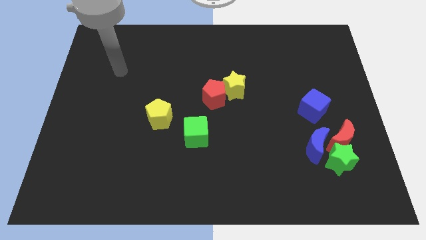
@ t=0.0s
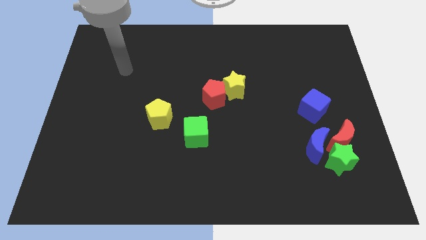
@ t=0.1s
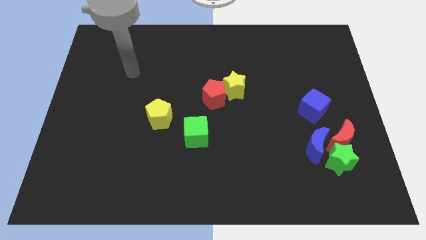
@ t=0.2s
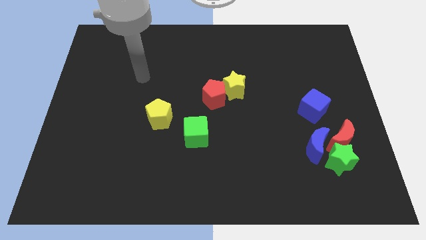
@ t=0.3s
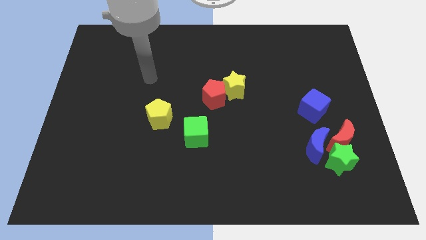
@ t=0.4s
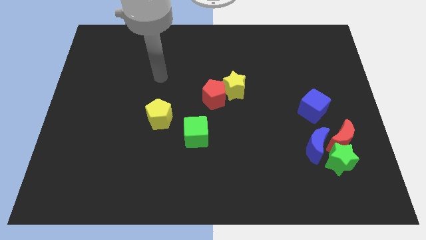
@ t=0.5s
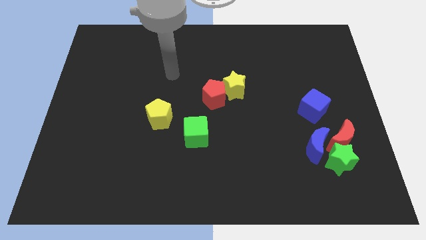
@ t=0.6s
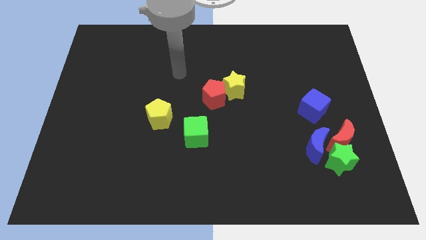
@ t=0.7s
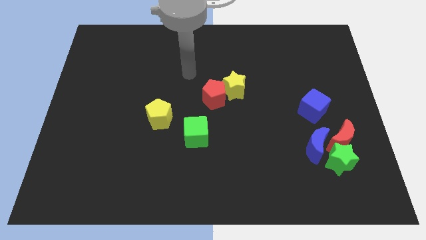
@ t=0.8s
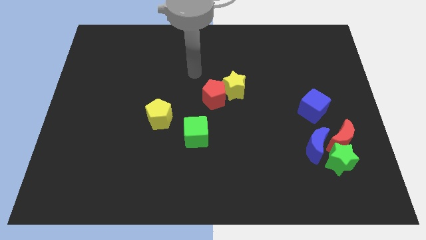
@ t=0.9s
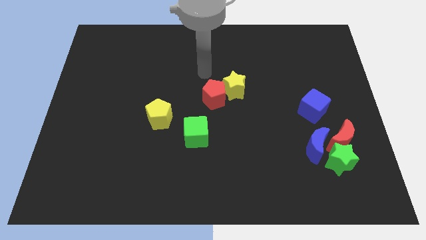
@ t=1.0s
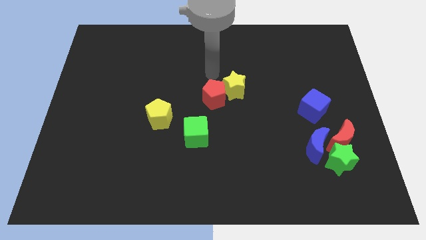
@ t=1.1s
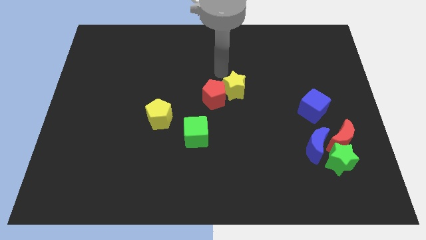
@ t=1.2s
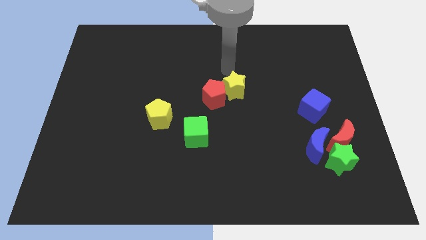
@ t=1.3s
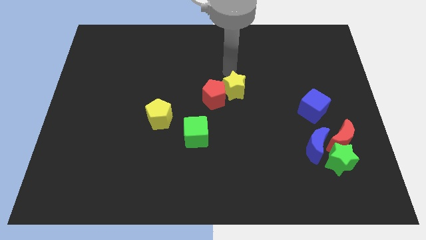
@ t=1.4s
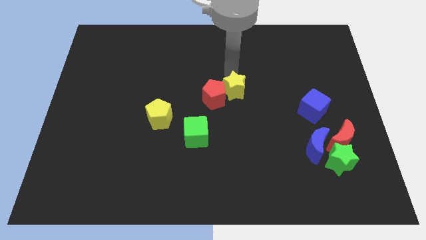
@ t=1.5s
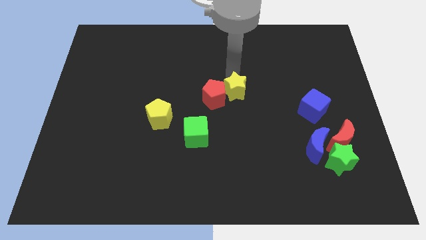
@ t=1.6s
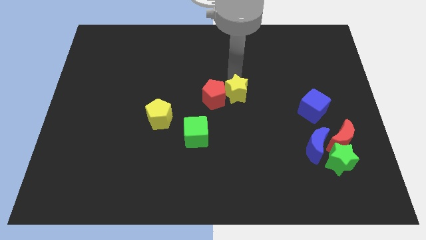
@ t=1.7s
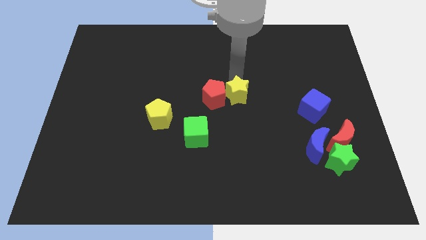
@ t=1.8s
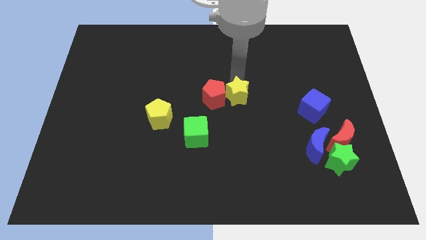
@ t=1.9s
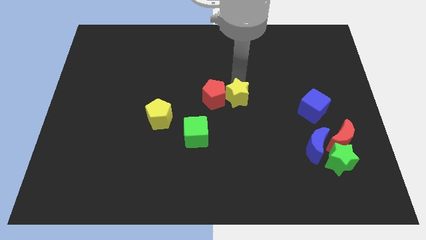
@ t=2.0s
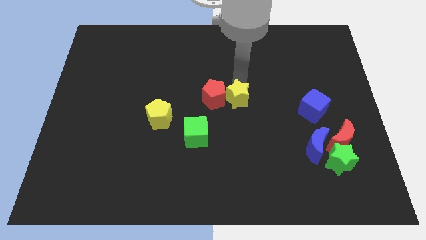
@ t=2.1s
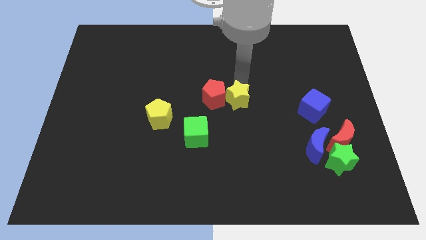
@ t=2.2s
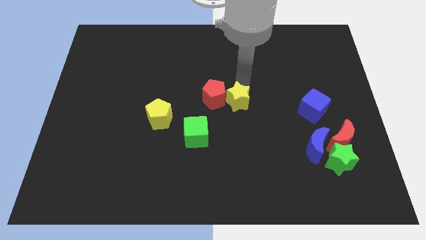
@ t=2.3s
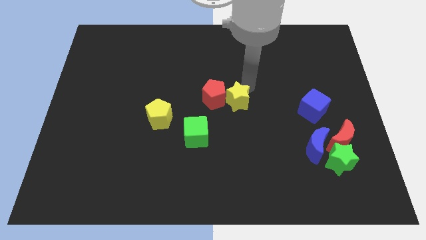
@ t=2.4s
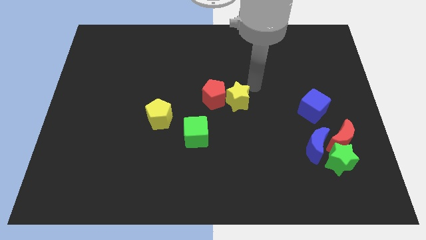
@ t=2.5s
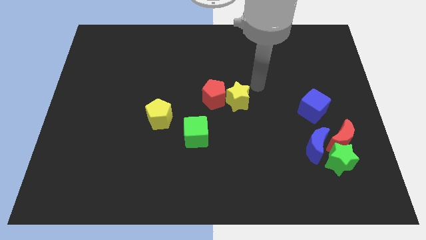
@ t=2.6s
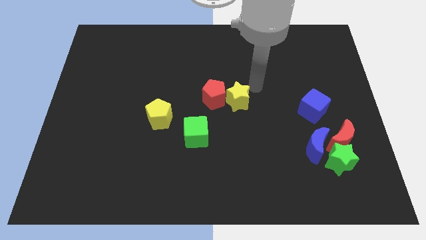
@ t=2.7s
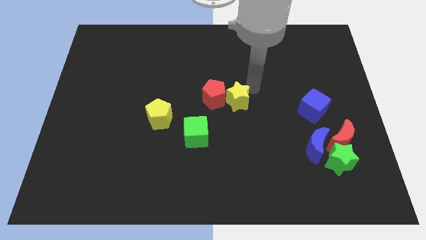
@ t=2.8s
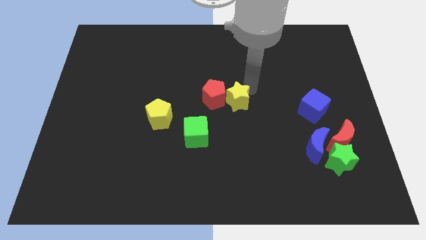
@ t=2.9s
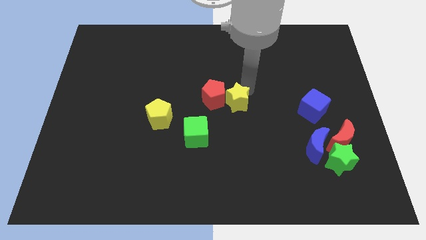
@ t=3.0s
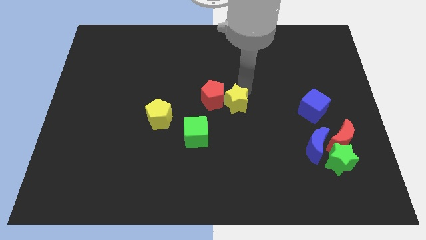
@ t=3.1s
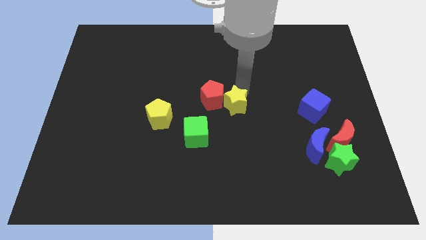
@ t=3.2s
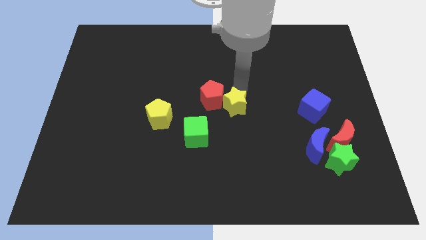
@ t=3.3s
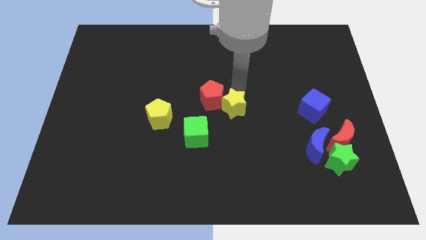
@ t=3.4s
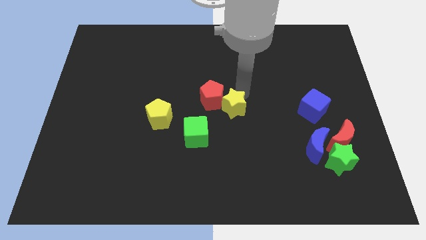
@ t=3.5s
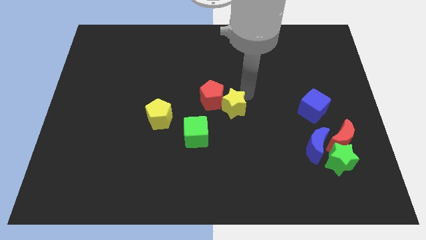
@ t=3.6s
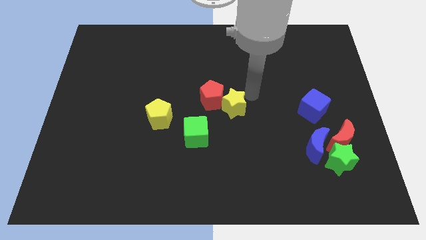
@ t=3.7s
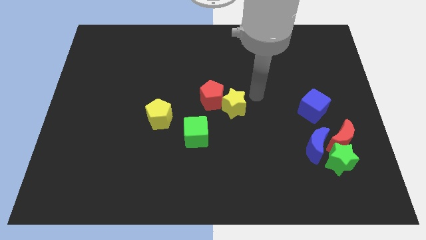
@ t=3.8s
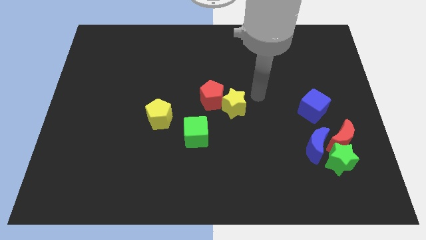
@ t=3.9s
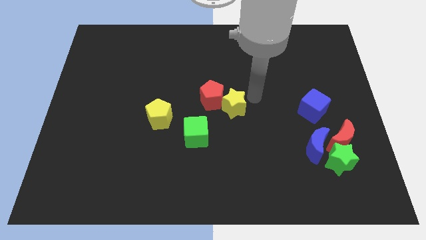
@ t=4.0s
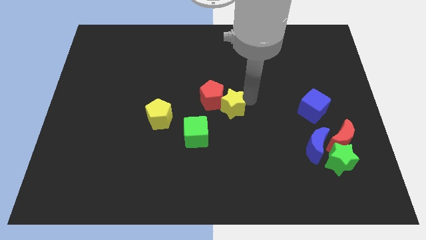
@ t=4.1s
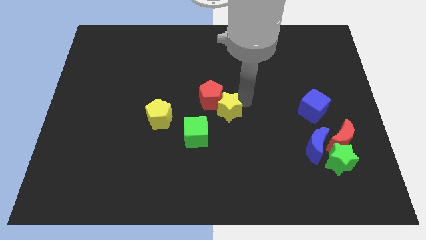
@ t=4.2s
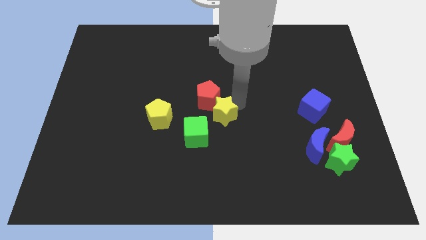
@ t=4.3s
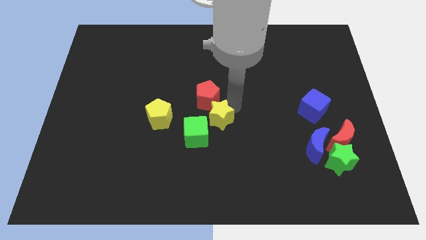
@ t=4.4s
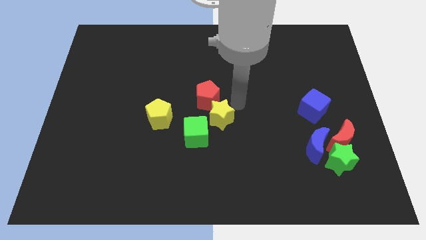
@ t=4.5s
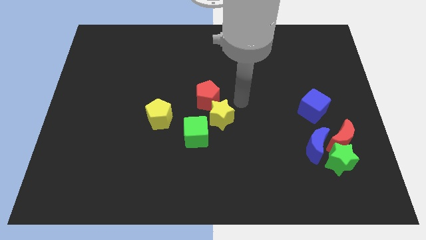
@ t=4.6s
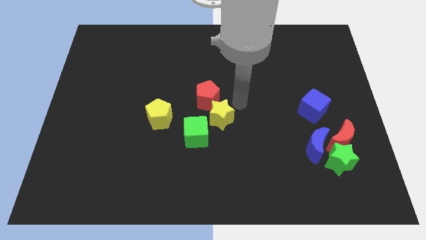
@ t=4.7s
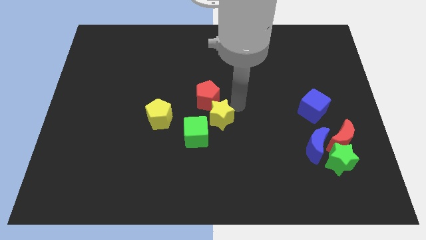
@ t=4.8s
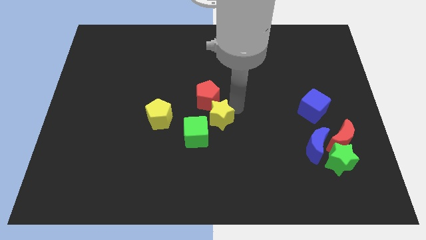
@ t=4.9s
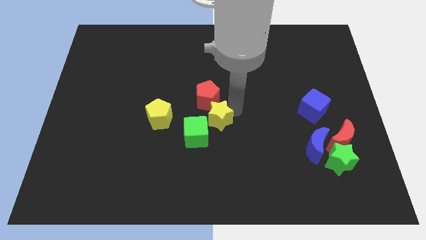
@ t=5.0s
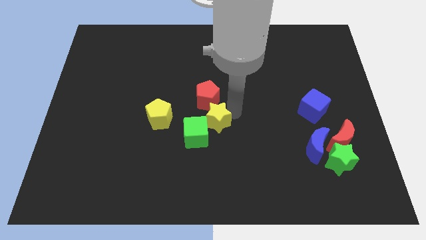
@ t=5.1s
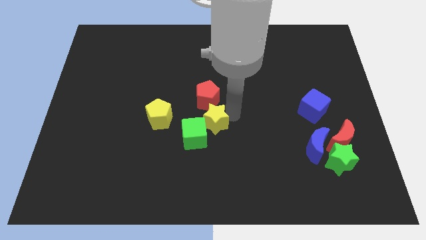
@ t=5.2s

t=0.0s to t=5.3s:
put the yellow star to the green cube

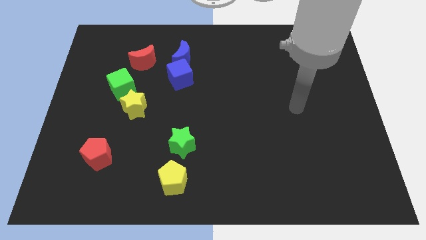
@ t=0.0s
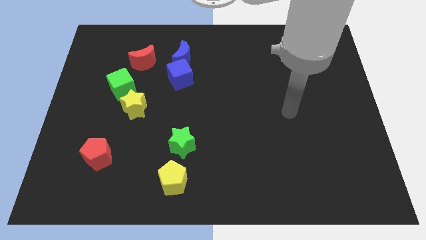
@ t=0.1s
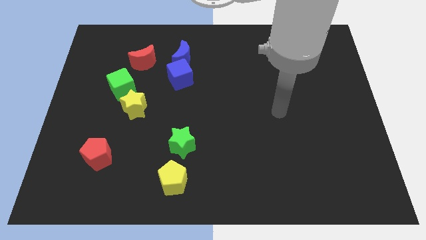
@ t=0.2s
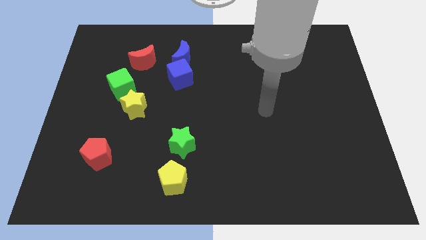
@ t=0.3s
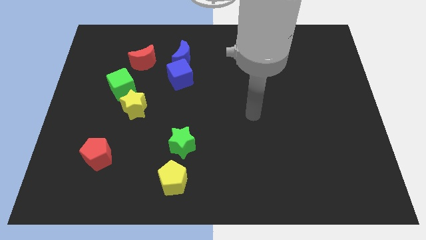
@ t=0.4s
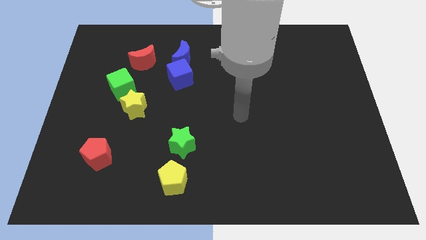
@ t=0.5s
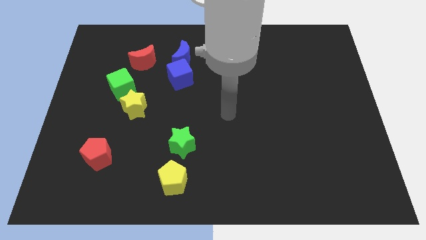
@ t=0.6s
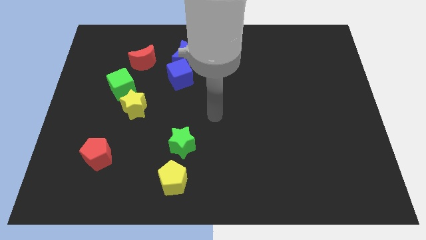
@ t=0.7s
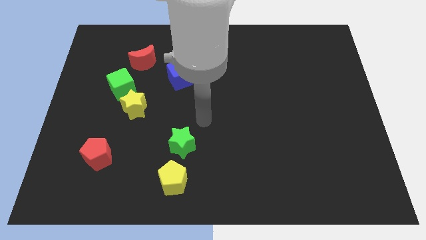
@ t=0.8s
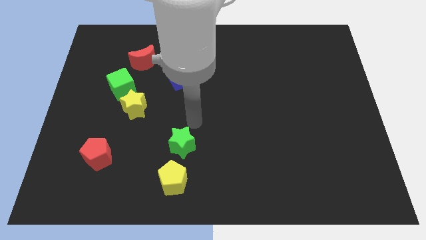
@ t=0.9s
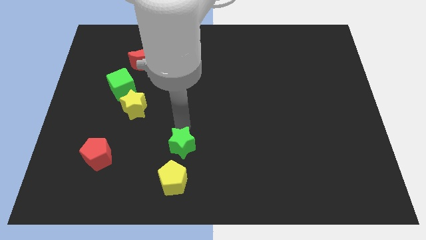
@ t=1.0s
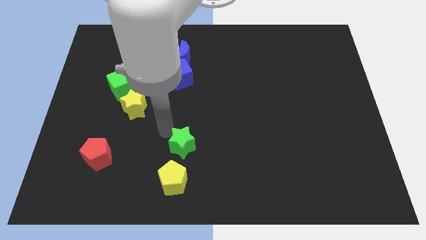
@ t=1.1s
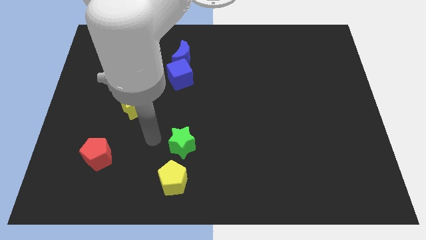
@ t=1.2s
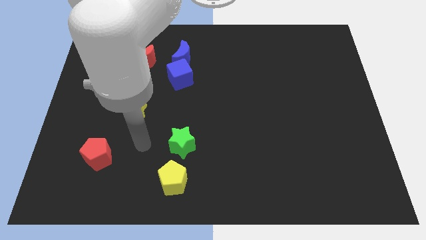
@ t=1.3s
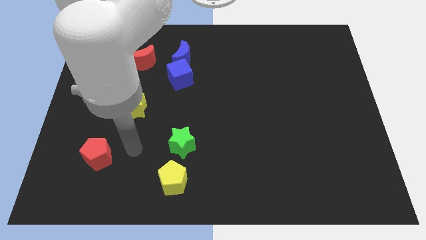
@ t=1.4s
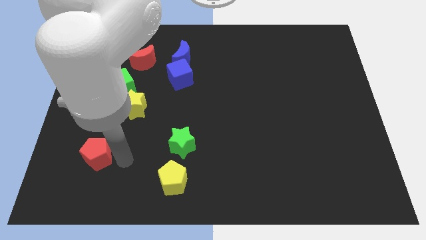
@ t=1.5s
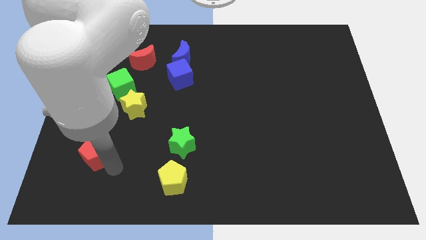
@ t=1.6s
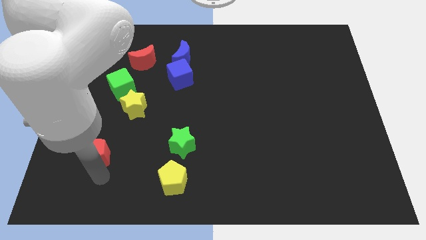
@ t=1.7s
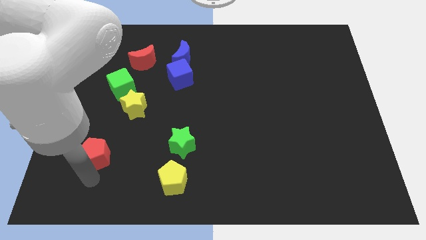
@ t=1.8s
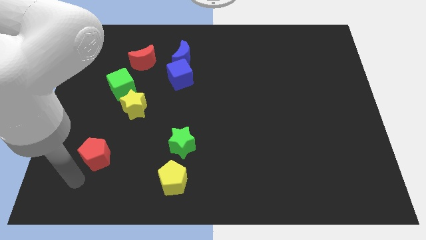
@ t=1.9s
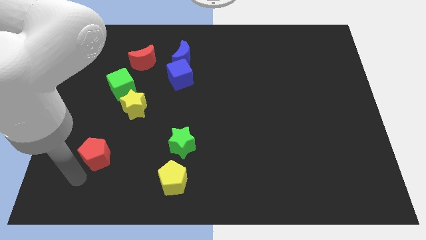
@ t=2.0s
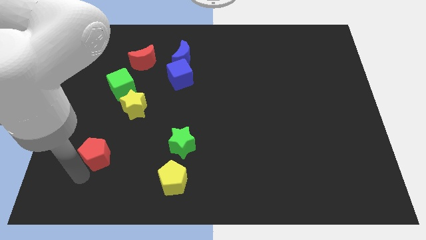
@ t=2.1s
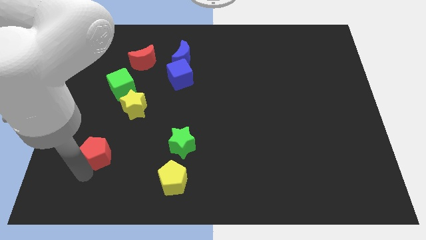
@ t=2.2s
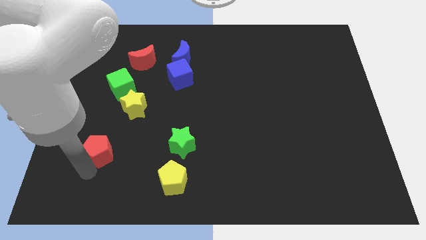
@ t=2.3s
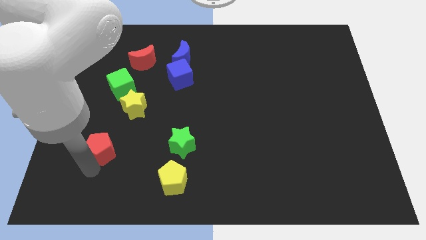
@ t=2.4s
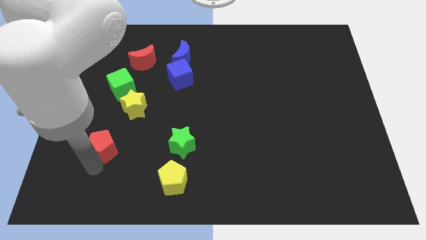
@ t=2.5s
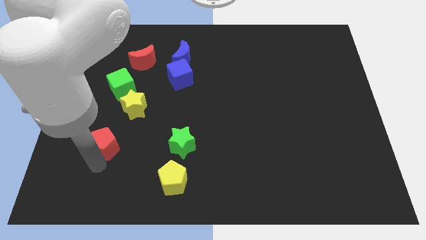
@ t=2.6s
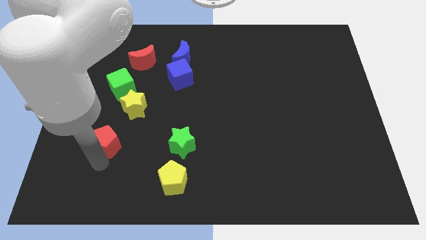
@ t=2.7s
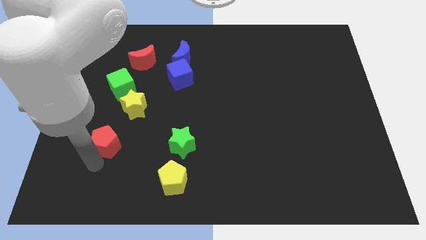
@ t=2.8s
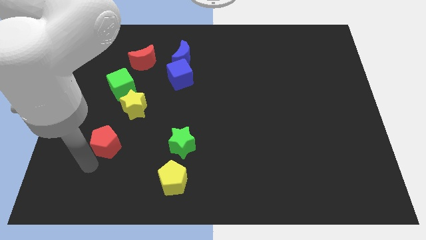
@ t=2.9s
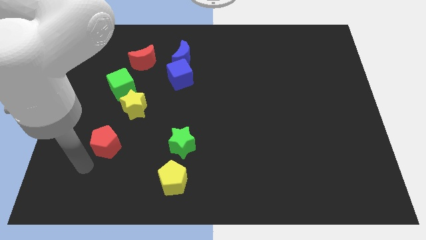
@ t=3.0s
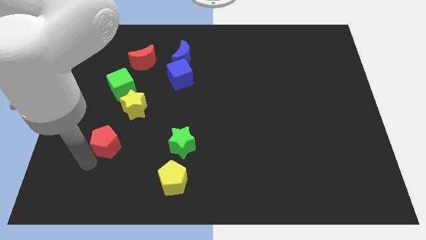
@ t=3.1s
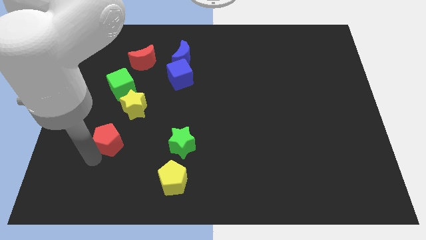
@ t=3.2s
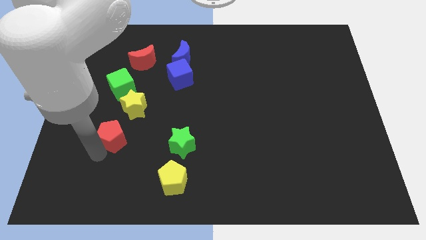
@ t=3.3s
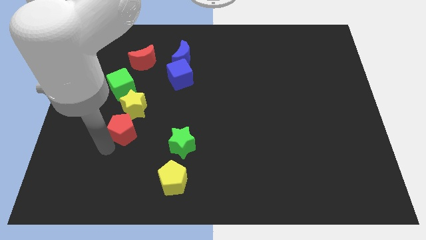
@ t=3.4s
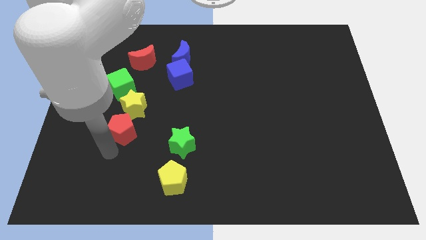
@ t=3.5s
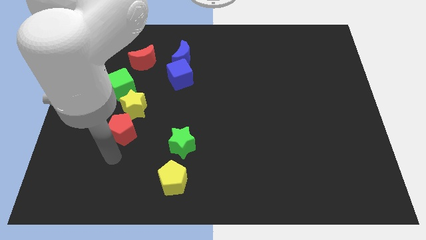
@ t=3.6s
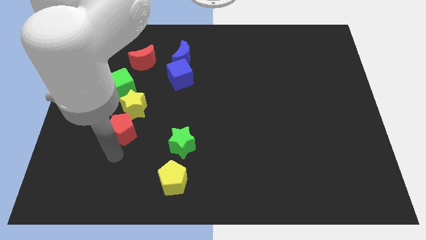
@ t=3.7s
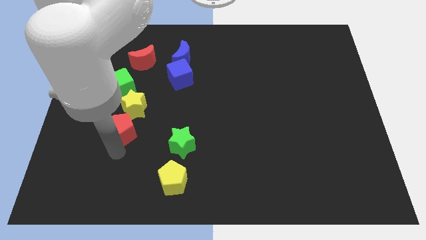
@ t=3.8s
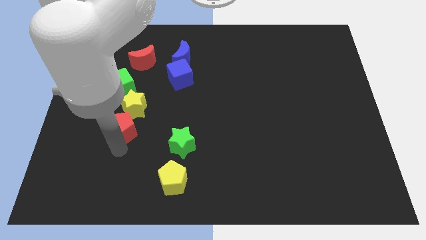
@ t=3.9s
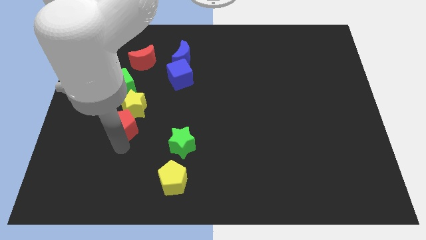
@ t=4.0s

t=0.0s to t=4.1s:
move the red pentagon towards the yellow star
